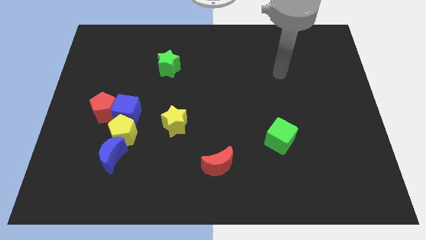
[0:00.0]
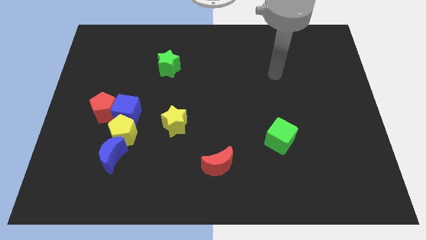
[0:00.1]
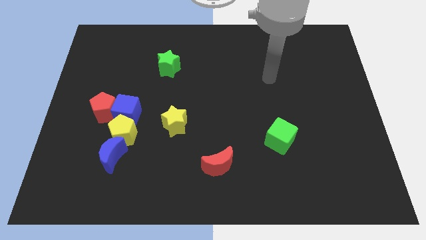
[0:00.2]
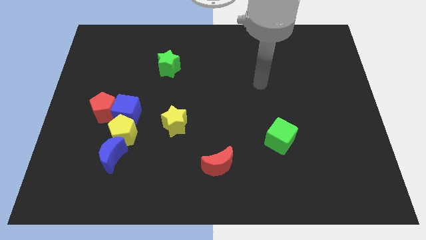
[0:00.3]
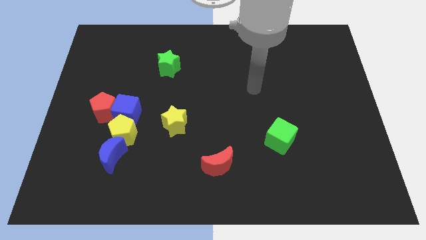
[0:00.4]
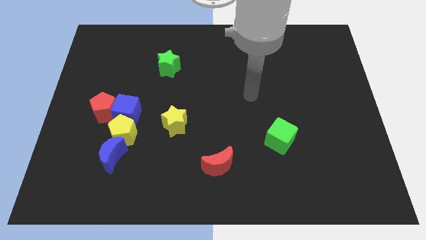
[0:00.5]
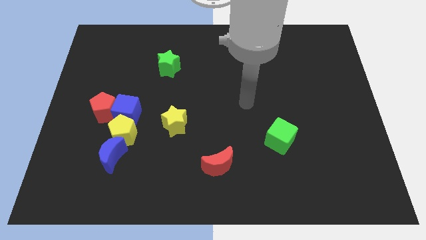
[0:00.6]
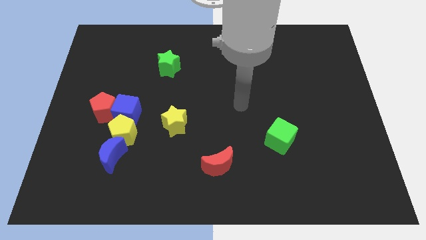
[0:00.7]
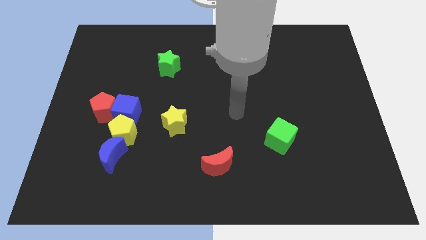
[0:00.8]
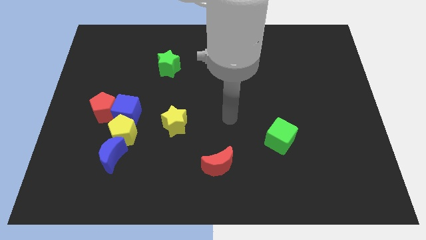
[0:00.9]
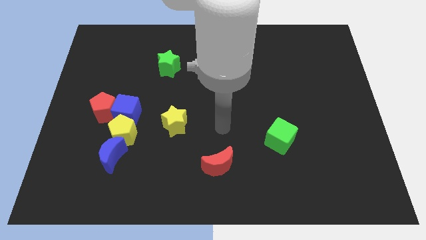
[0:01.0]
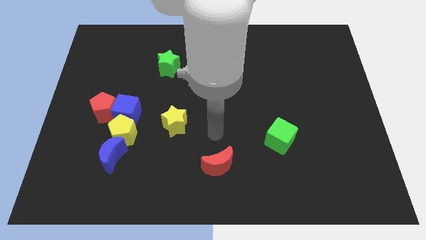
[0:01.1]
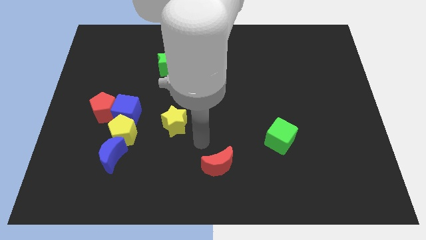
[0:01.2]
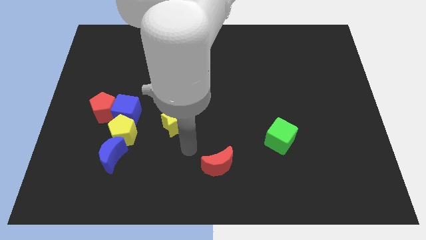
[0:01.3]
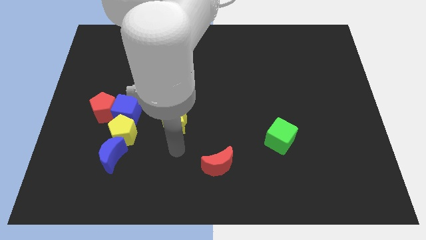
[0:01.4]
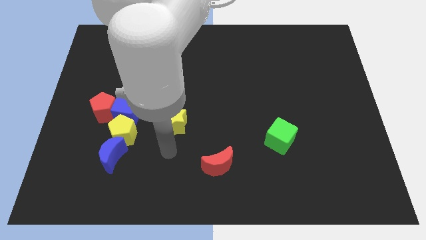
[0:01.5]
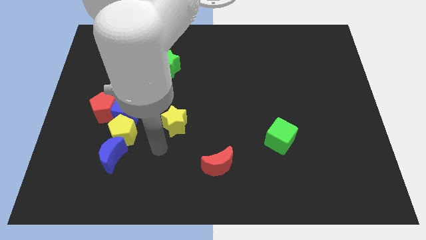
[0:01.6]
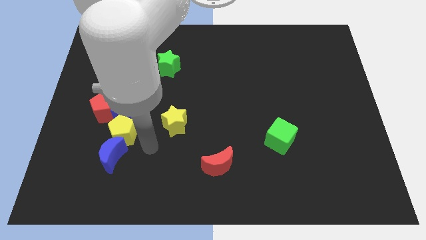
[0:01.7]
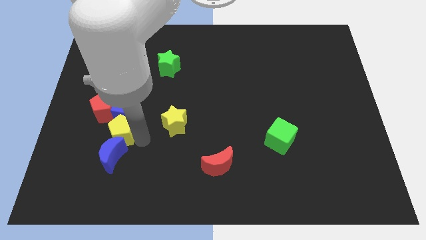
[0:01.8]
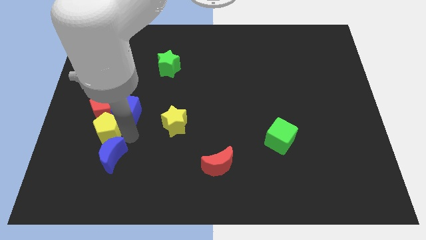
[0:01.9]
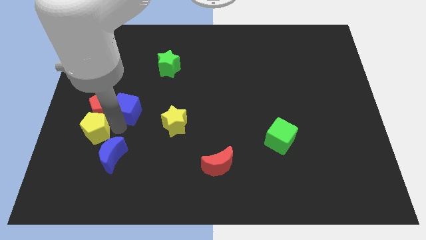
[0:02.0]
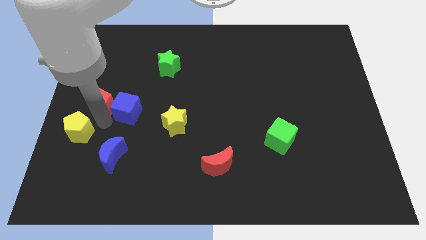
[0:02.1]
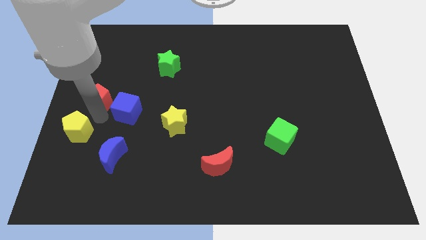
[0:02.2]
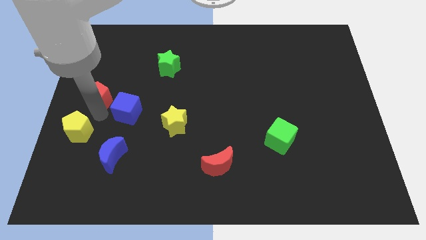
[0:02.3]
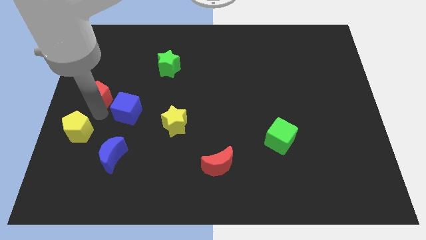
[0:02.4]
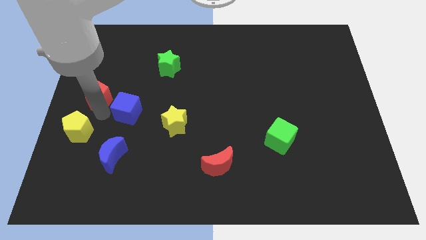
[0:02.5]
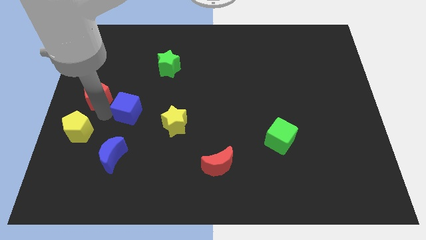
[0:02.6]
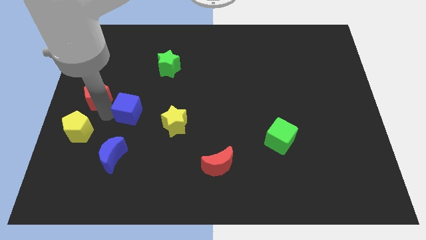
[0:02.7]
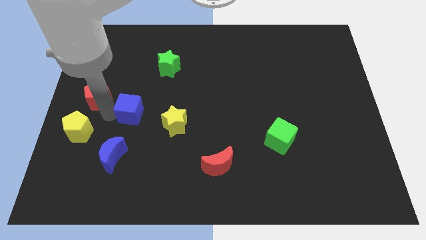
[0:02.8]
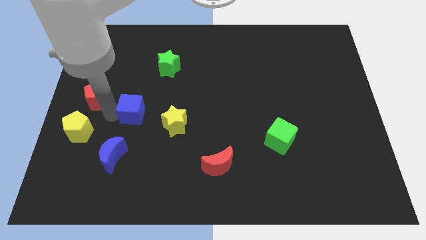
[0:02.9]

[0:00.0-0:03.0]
pull the blue cube apart from the red pentagon and yellow pentagon

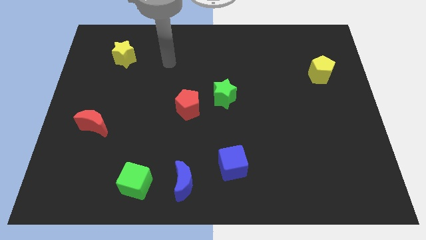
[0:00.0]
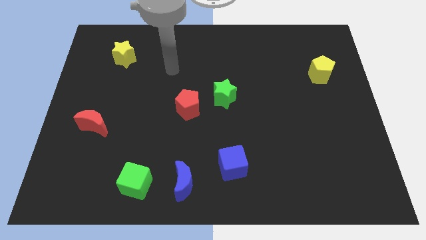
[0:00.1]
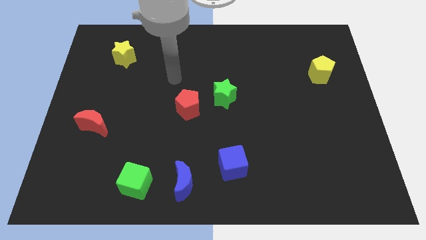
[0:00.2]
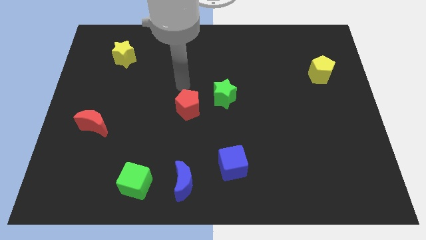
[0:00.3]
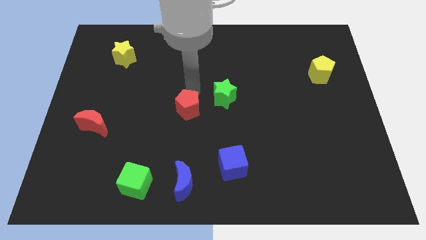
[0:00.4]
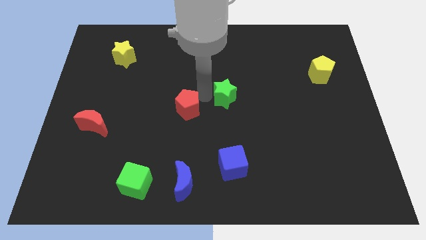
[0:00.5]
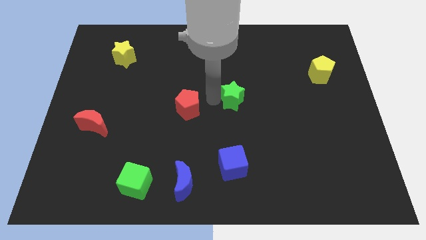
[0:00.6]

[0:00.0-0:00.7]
separate the red pentagon from the green star

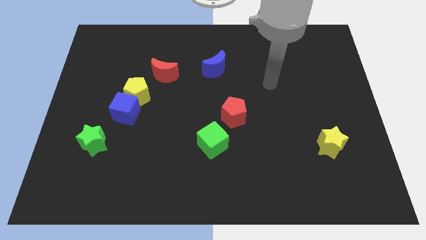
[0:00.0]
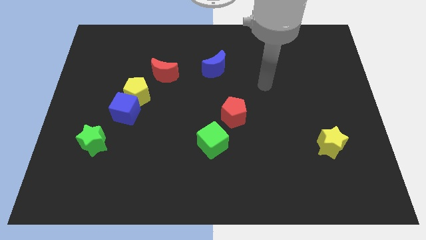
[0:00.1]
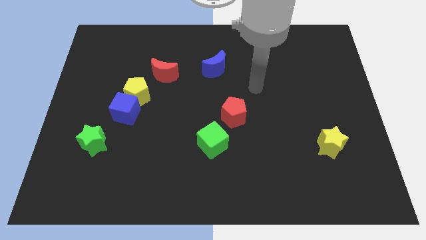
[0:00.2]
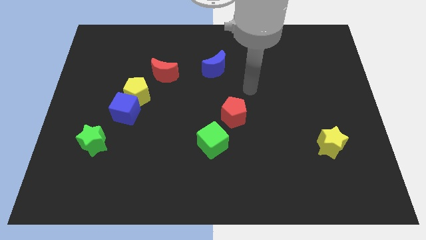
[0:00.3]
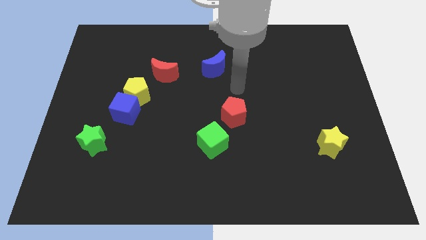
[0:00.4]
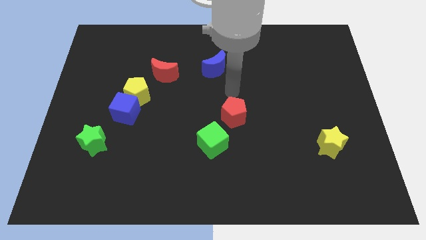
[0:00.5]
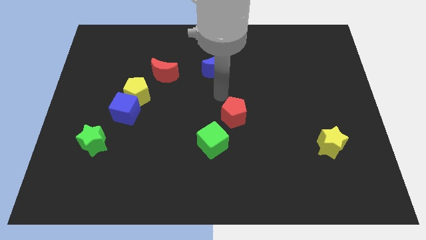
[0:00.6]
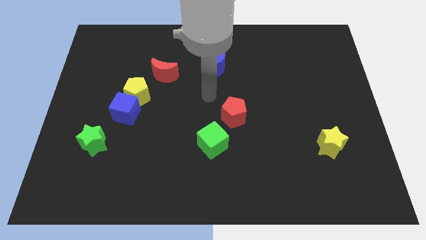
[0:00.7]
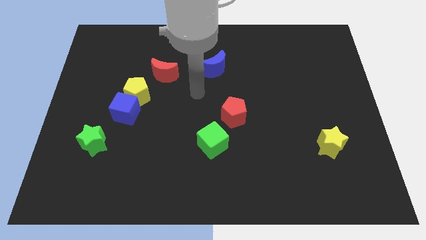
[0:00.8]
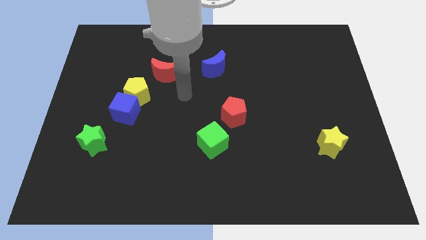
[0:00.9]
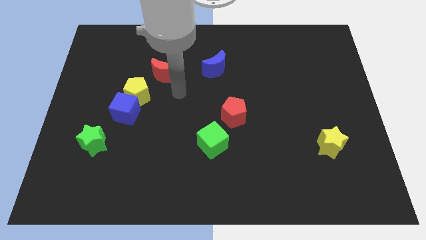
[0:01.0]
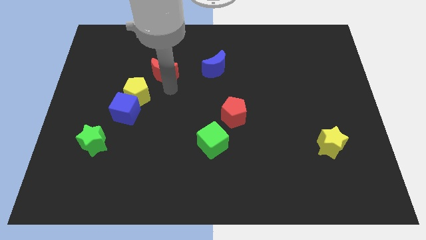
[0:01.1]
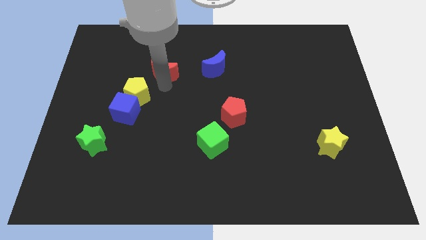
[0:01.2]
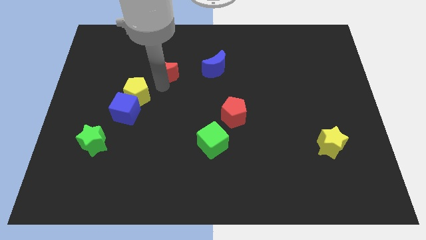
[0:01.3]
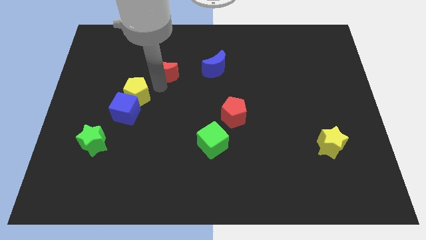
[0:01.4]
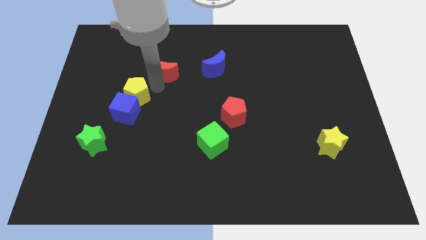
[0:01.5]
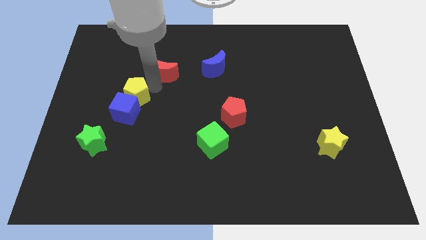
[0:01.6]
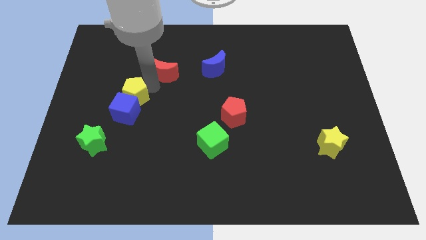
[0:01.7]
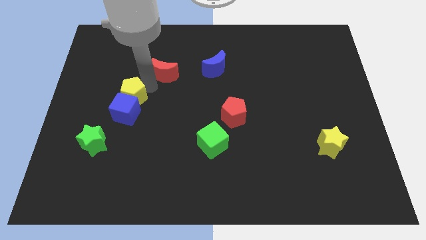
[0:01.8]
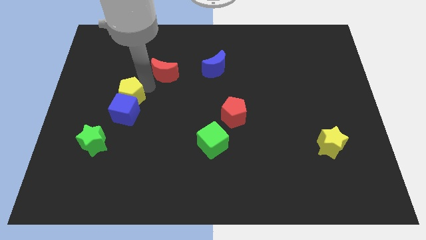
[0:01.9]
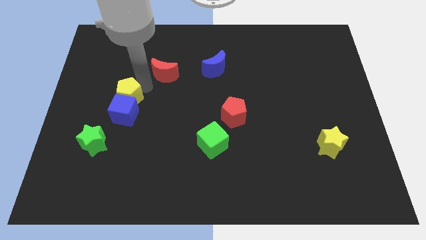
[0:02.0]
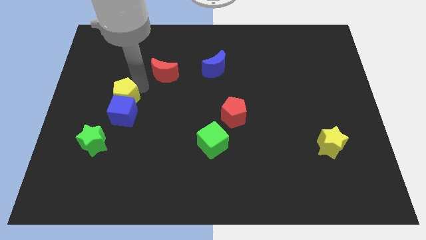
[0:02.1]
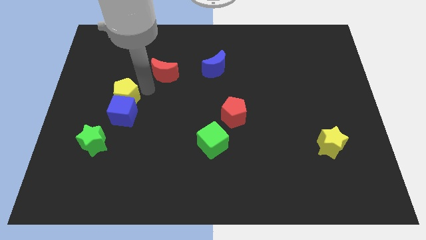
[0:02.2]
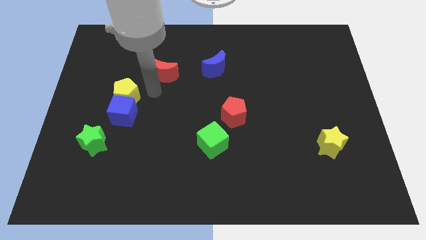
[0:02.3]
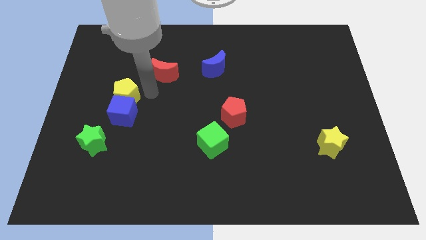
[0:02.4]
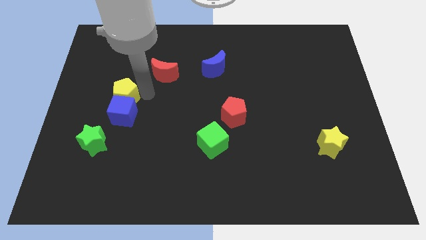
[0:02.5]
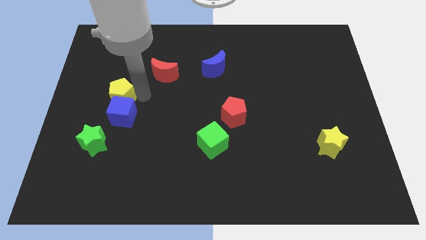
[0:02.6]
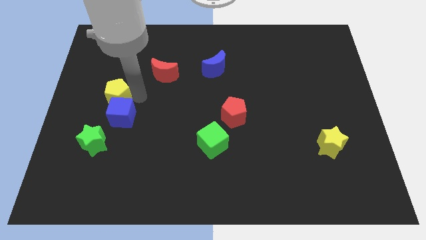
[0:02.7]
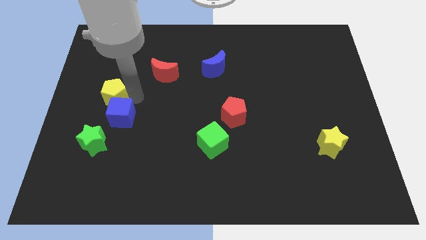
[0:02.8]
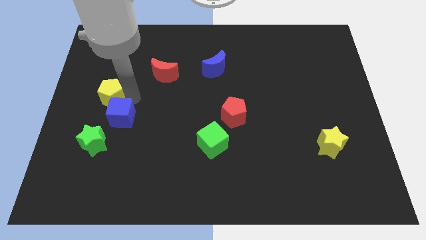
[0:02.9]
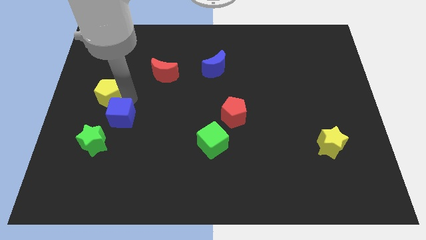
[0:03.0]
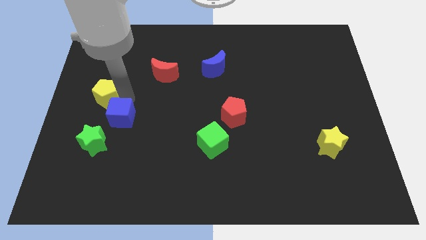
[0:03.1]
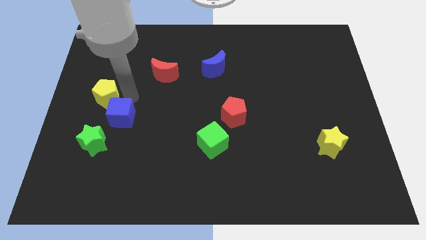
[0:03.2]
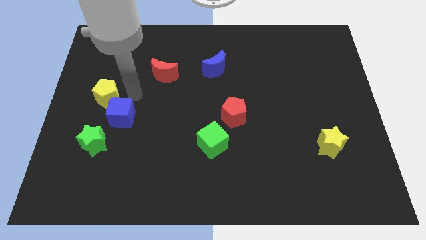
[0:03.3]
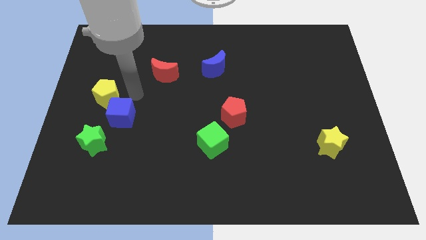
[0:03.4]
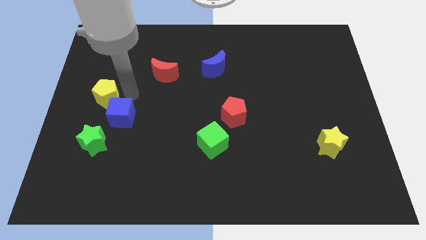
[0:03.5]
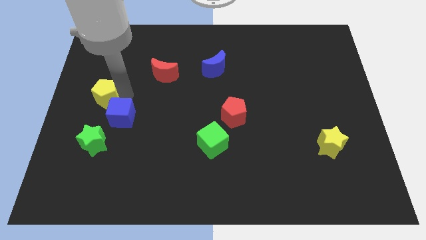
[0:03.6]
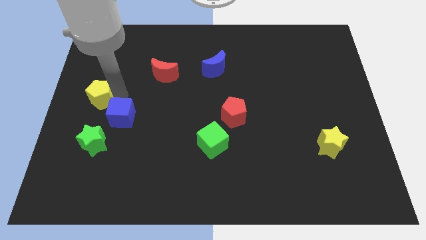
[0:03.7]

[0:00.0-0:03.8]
separate the yellow pentagon from the blue cube and red moon

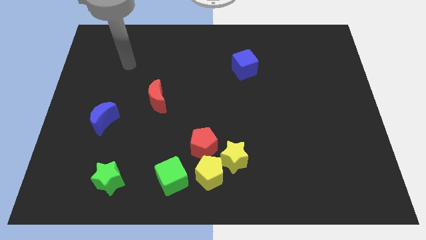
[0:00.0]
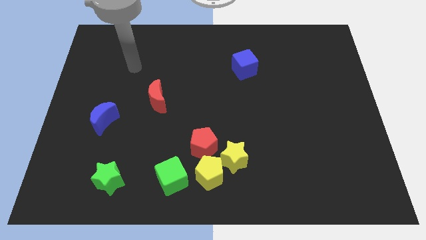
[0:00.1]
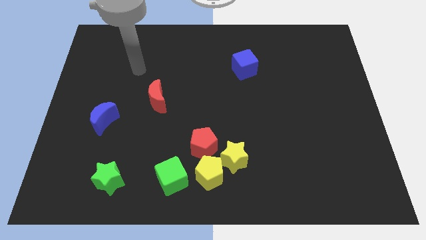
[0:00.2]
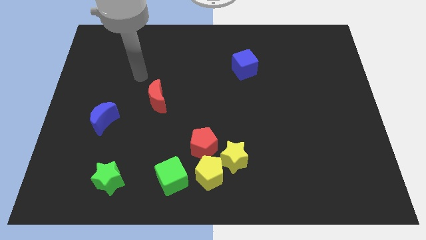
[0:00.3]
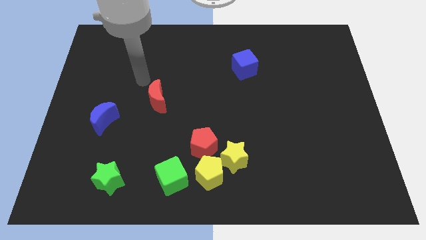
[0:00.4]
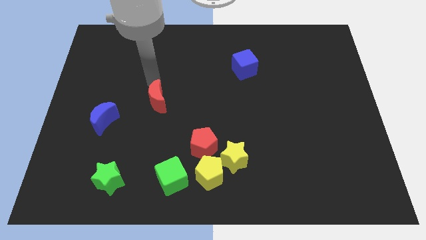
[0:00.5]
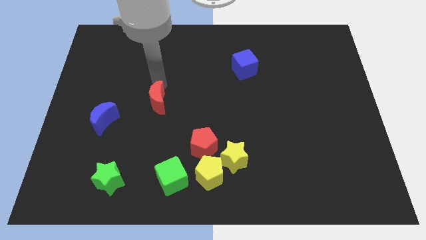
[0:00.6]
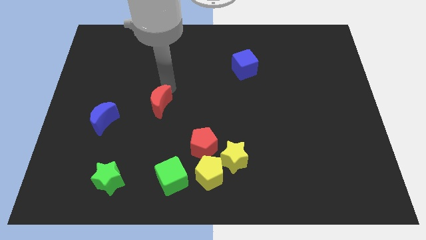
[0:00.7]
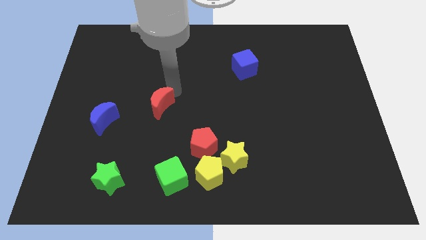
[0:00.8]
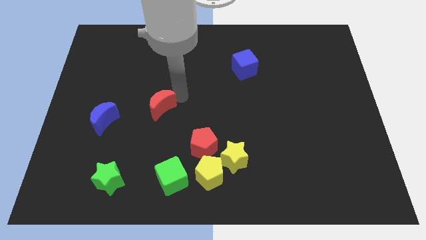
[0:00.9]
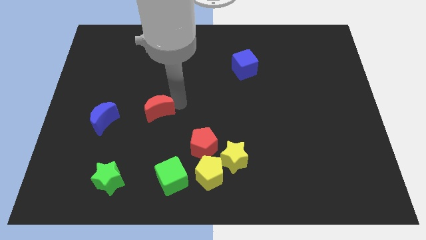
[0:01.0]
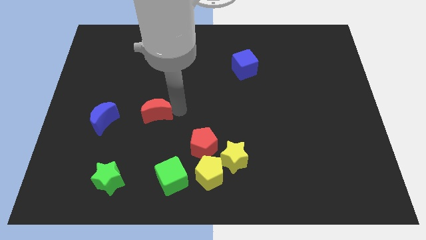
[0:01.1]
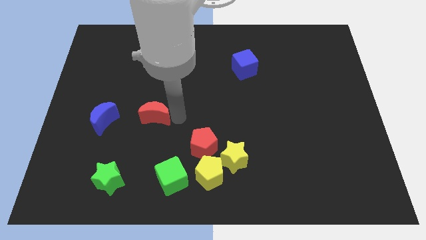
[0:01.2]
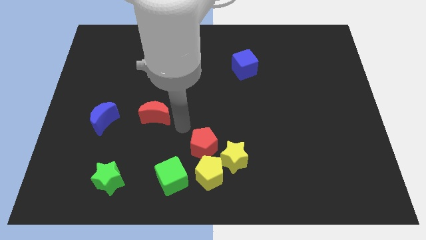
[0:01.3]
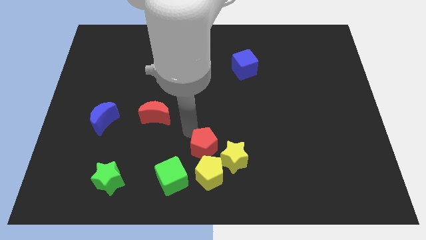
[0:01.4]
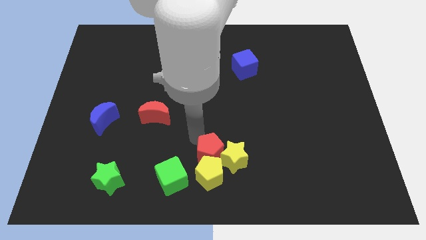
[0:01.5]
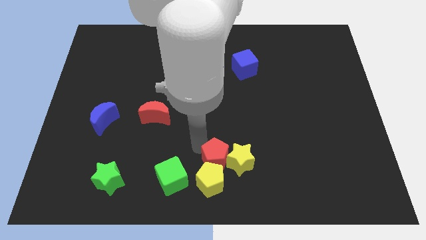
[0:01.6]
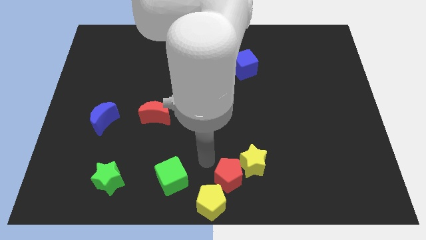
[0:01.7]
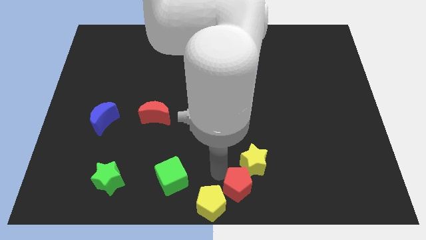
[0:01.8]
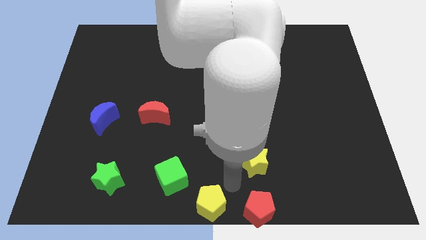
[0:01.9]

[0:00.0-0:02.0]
separate the yellow star from the yellow pentagon and red pentagon

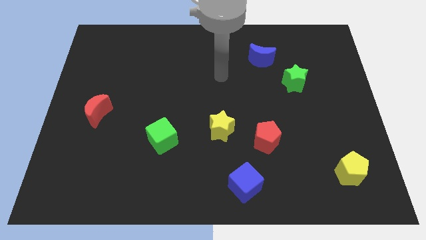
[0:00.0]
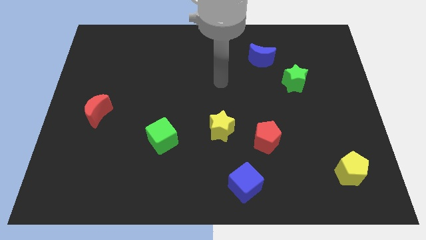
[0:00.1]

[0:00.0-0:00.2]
move the red pentagon away from the yellow star
